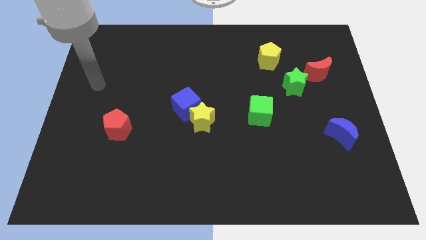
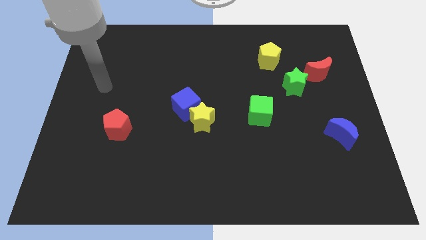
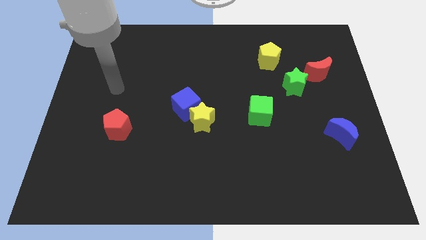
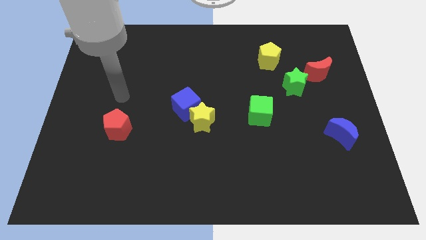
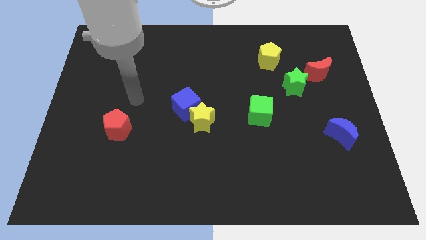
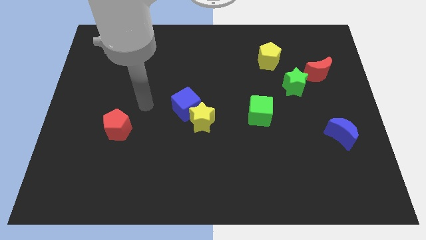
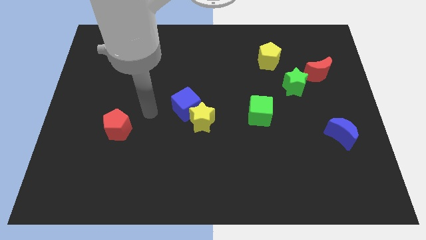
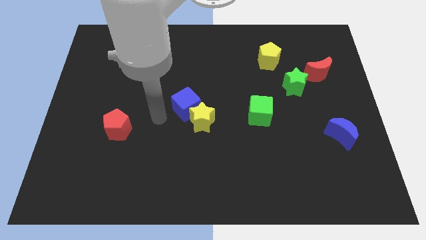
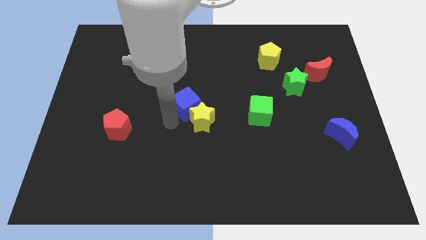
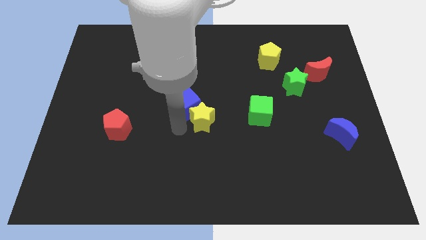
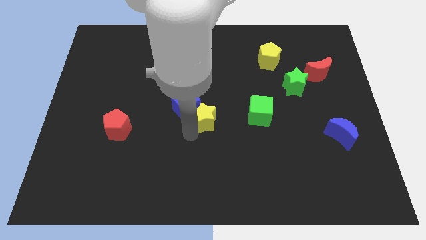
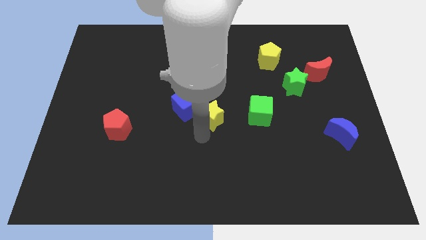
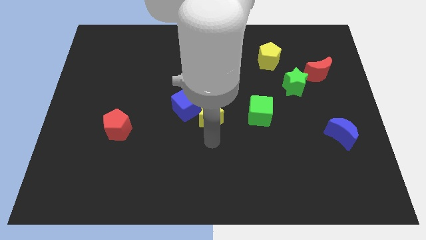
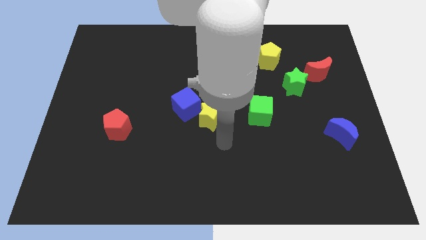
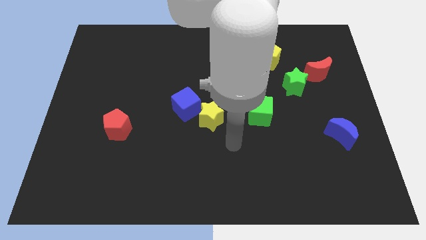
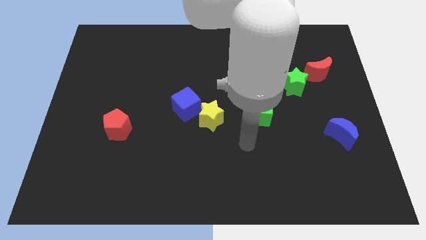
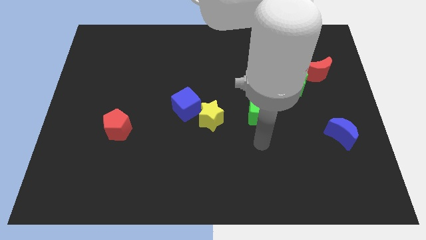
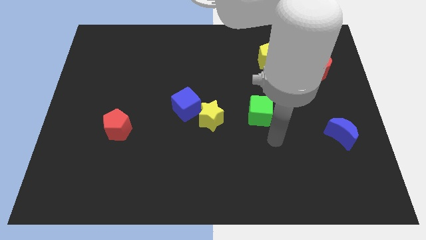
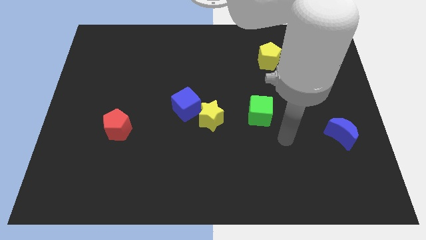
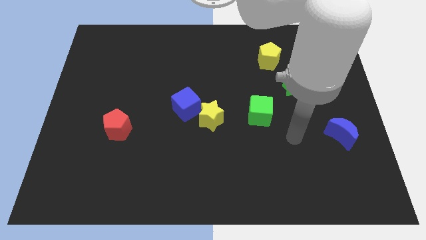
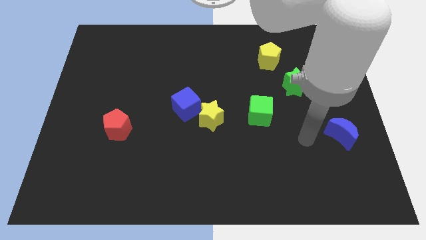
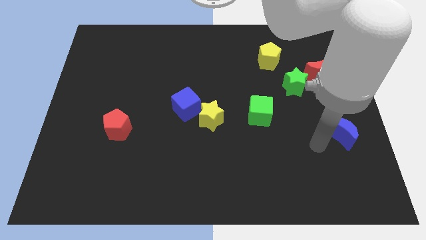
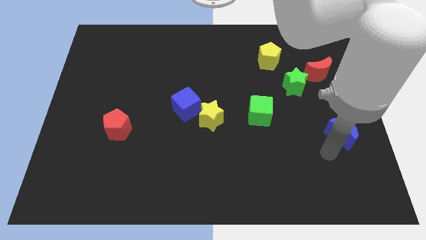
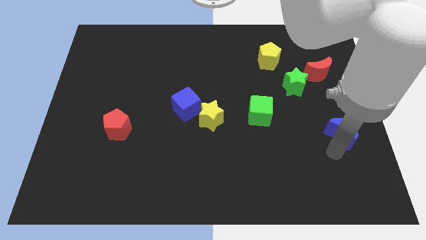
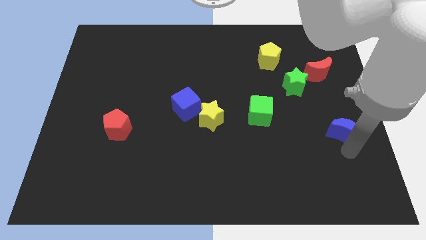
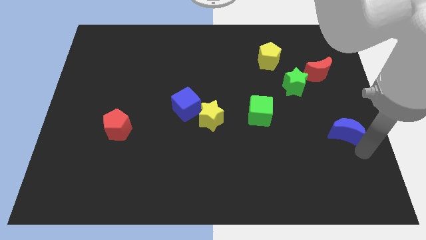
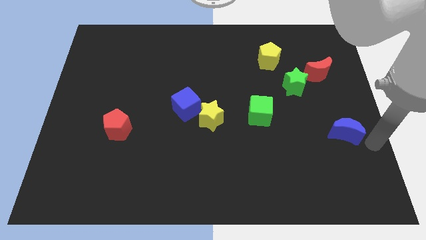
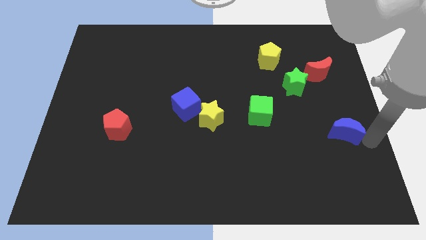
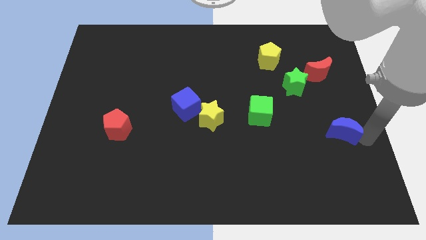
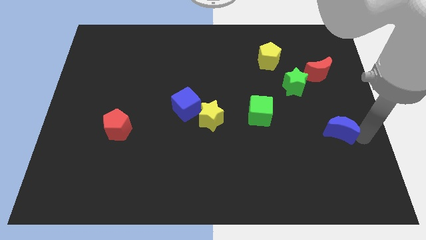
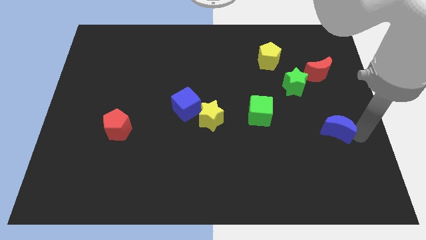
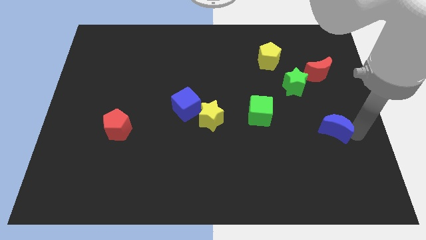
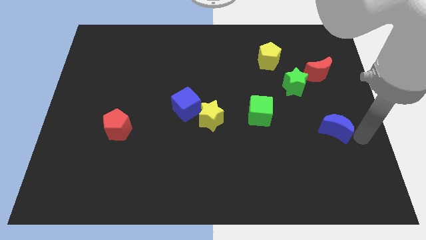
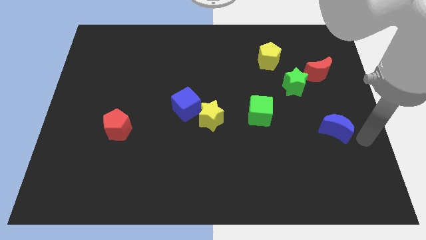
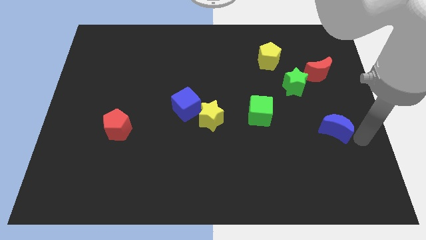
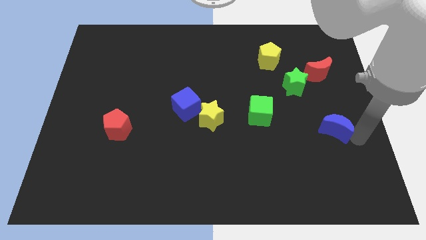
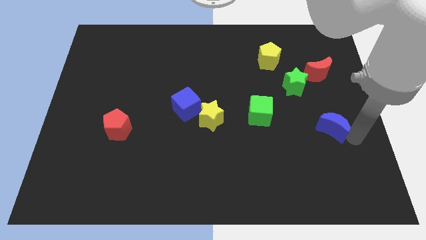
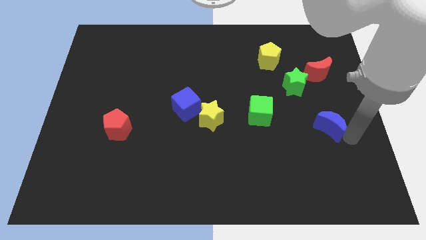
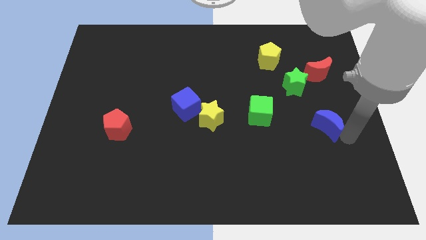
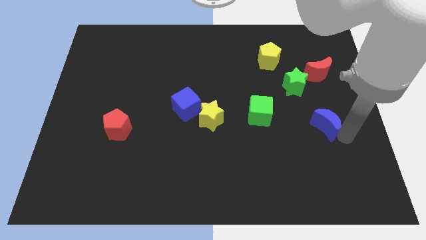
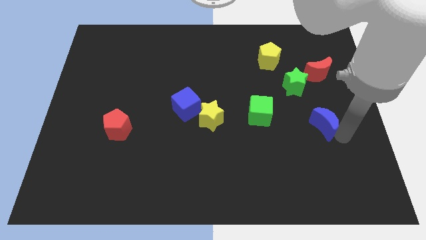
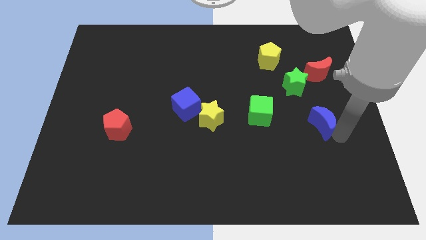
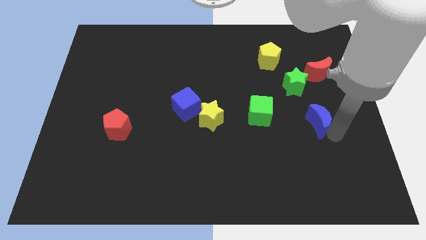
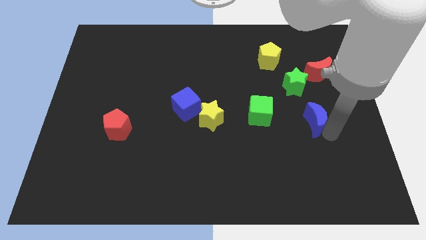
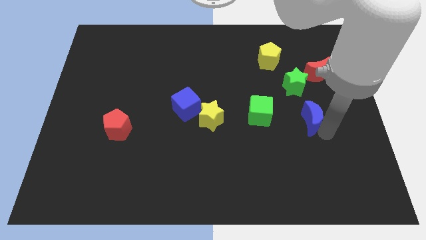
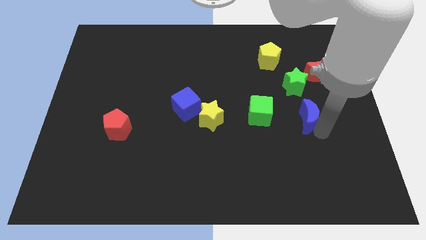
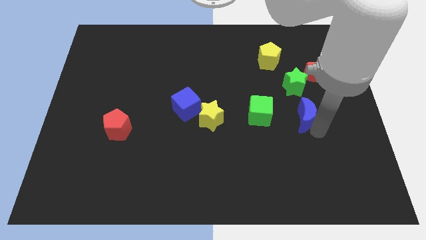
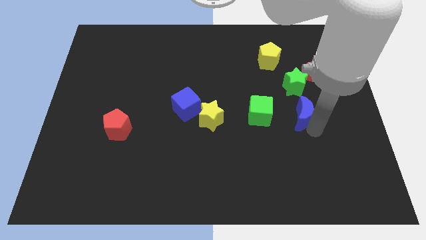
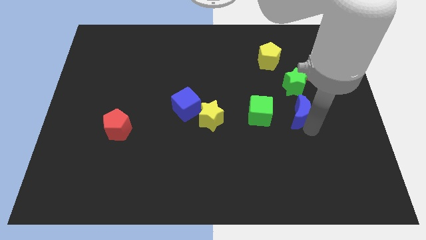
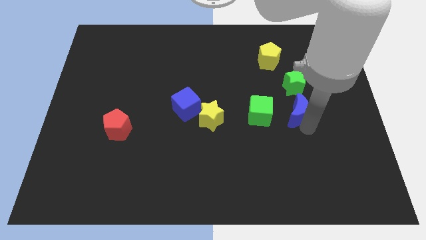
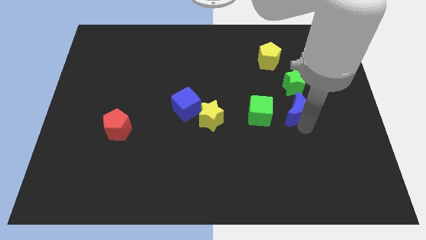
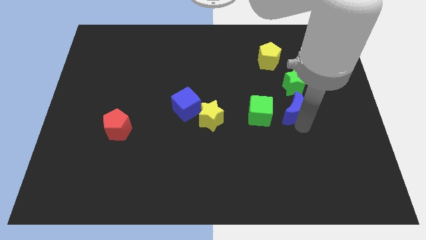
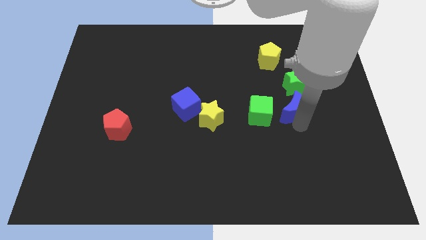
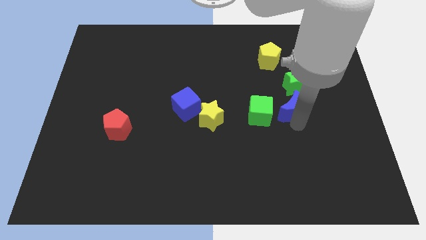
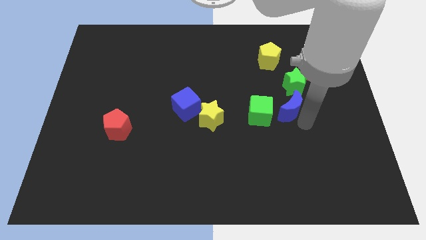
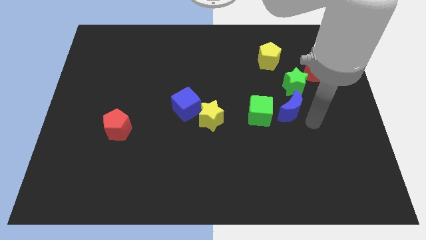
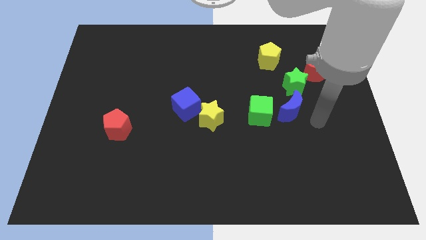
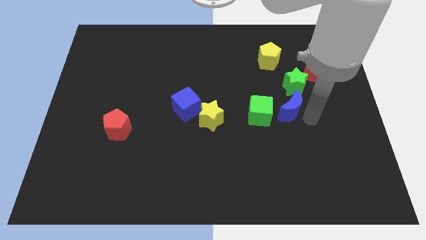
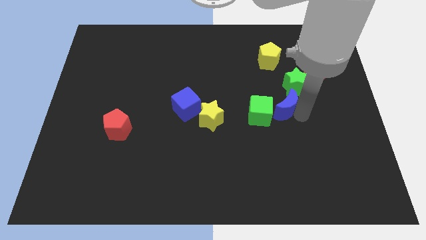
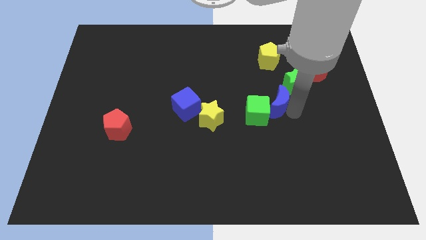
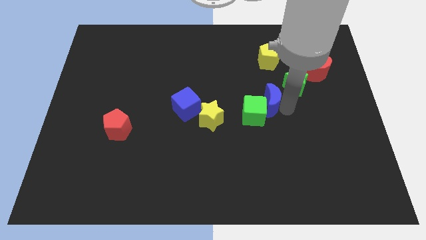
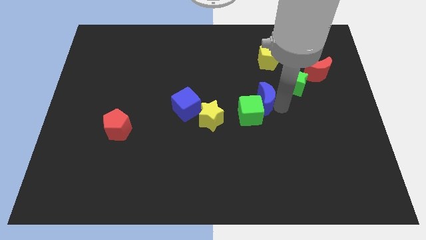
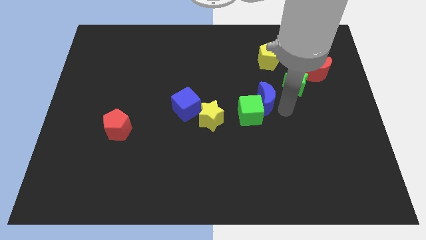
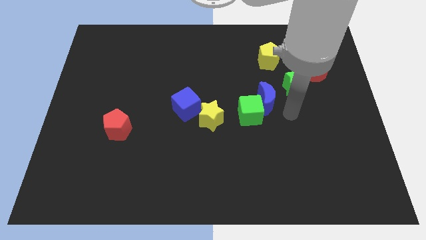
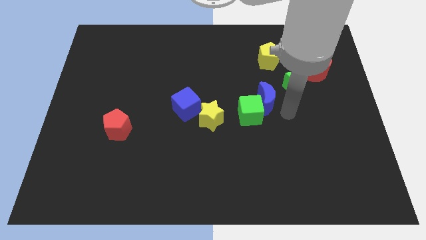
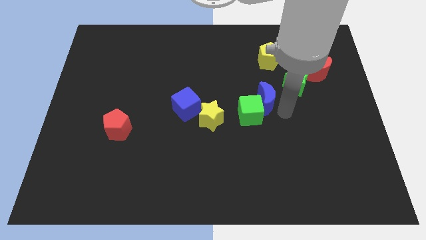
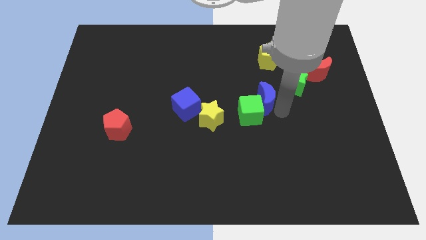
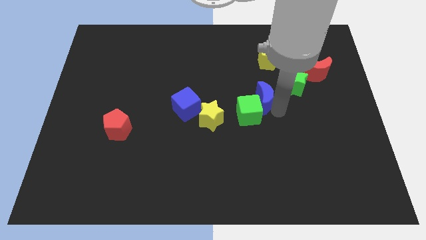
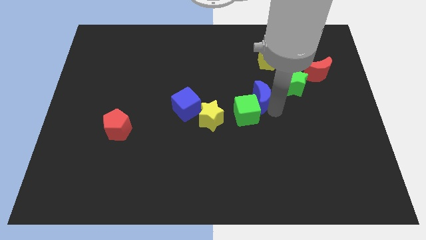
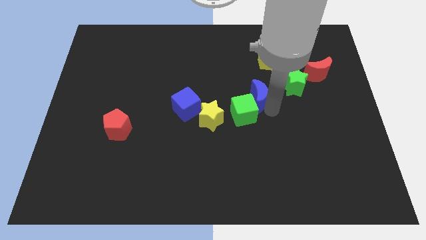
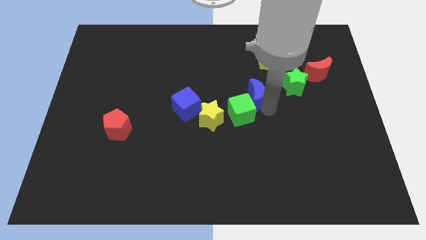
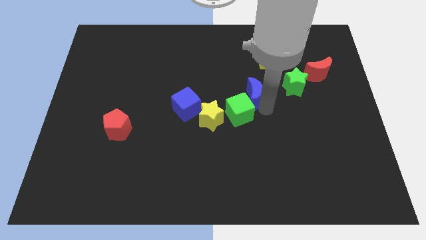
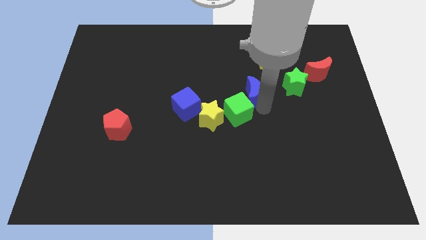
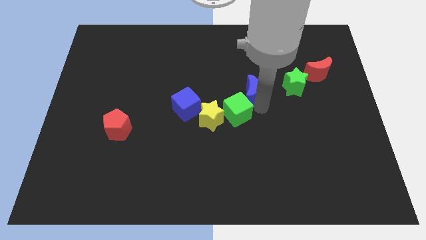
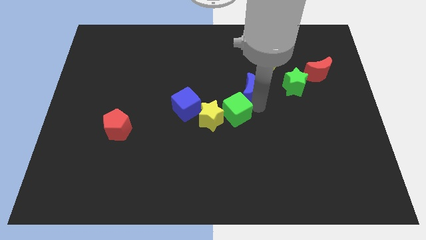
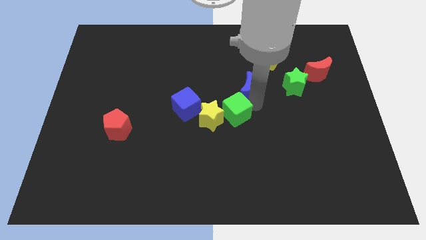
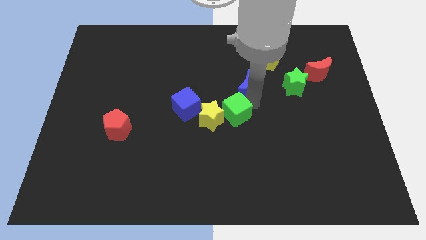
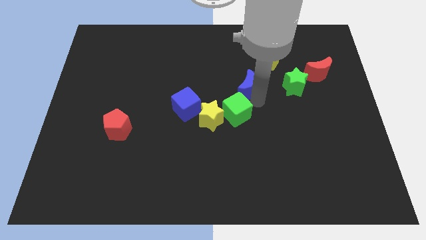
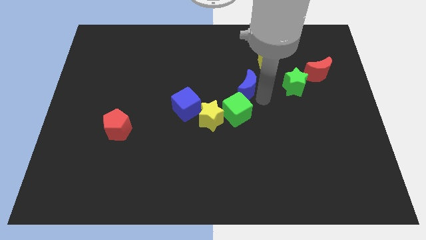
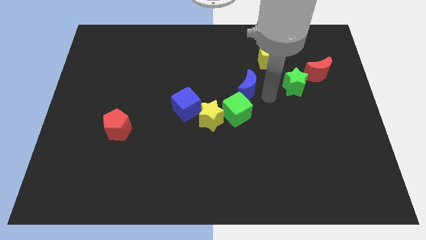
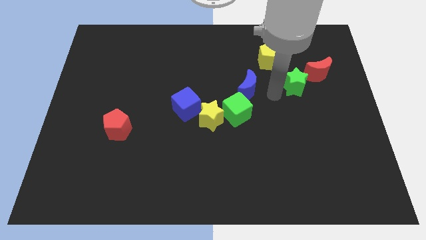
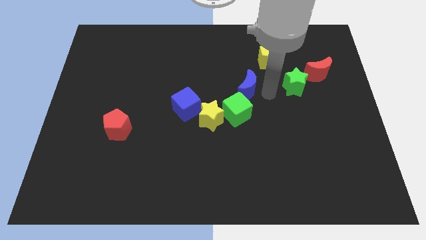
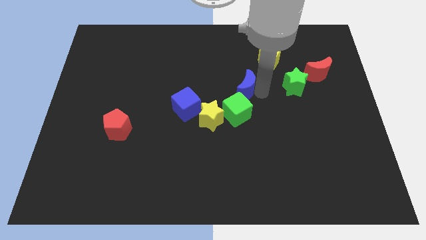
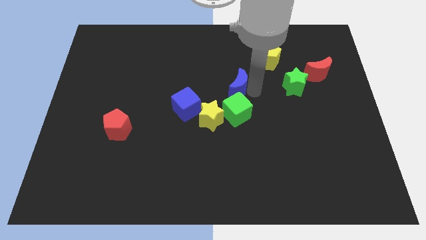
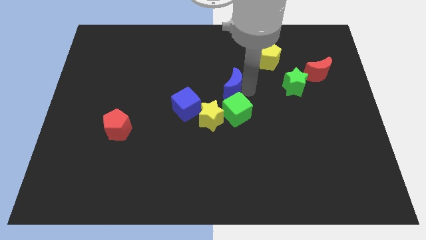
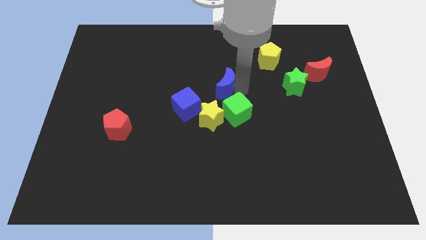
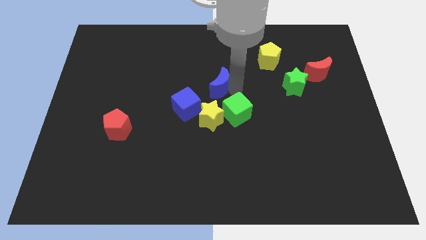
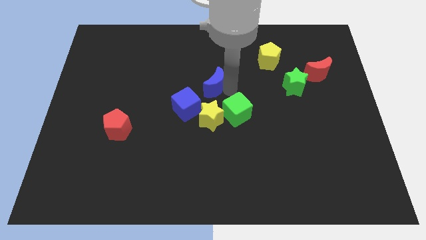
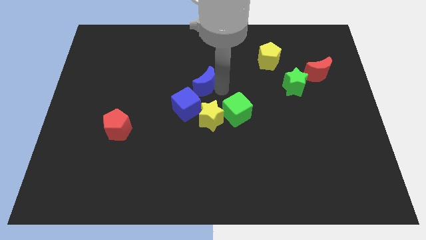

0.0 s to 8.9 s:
push the blue moon to the top side of the blue cube
